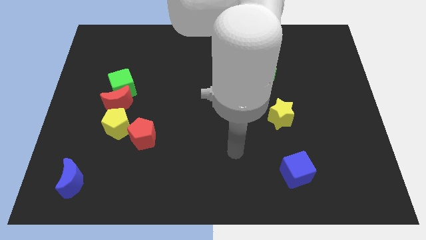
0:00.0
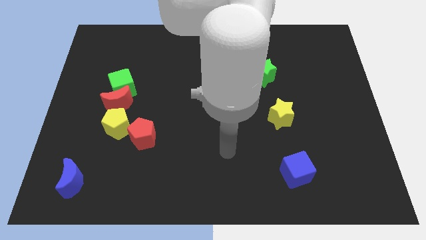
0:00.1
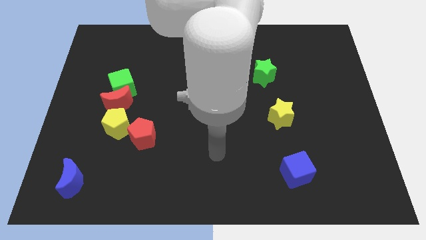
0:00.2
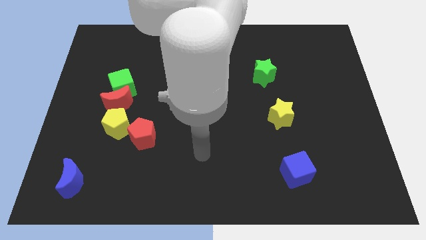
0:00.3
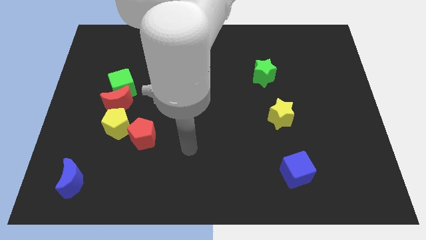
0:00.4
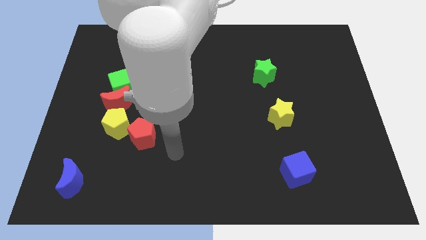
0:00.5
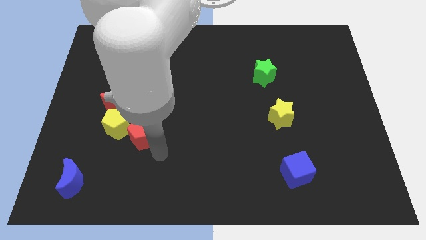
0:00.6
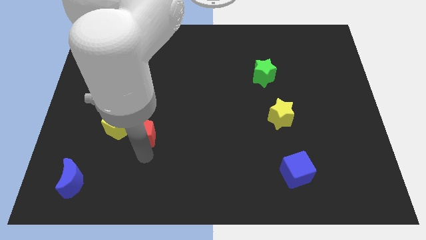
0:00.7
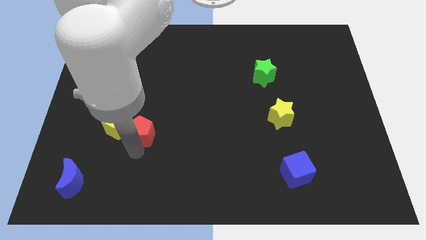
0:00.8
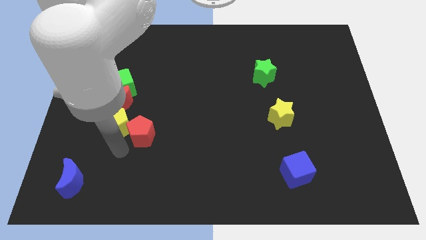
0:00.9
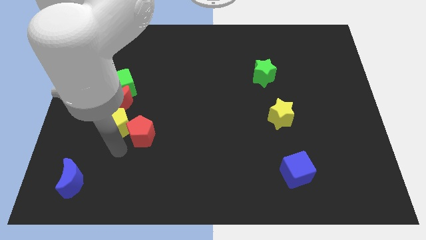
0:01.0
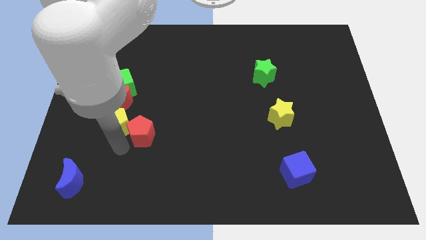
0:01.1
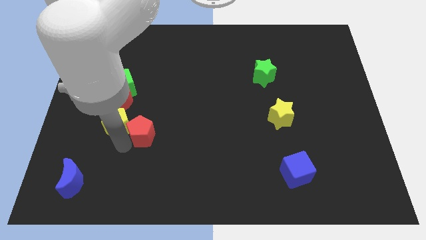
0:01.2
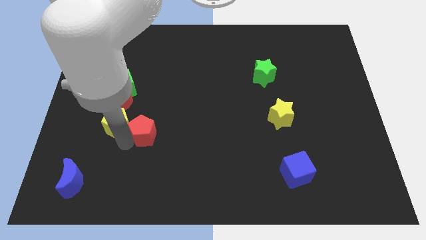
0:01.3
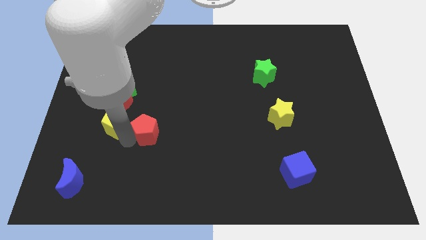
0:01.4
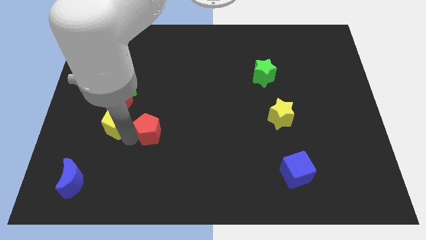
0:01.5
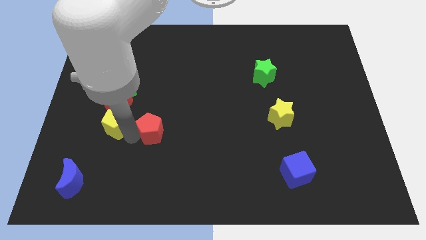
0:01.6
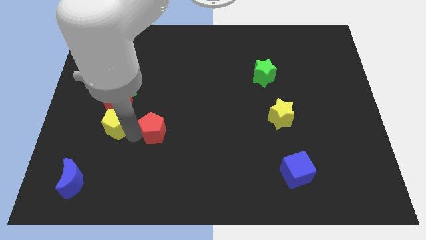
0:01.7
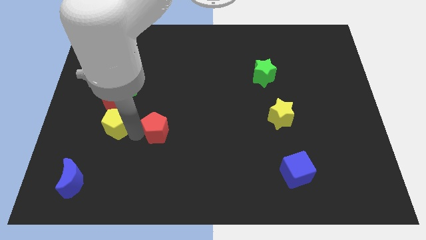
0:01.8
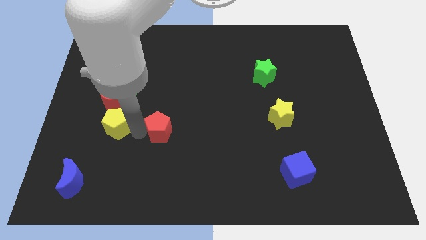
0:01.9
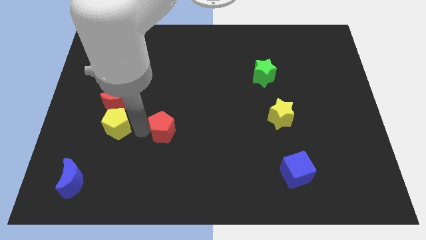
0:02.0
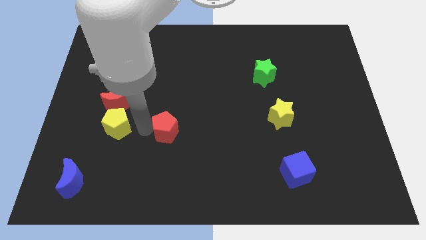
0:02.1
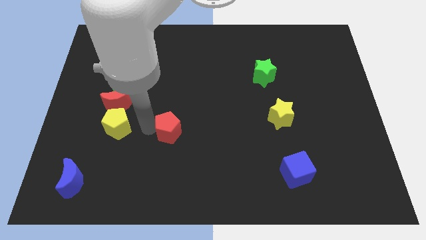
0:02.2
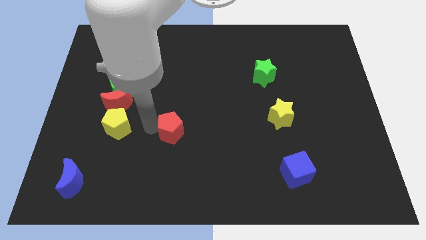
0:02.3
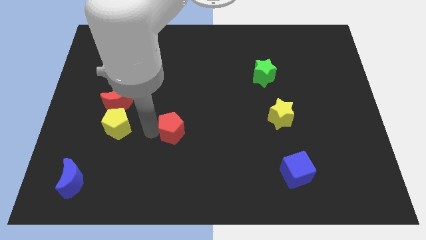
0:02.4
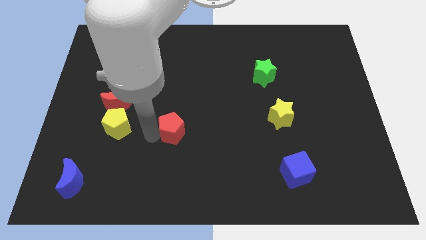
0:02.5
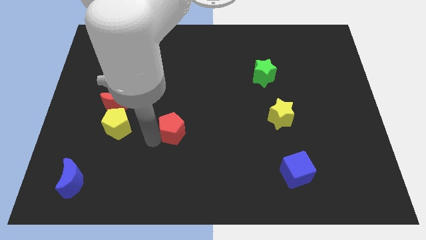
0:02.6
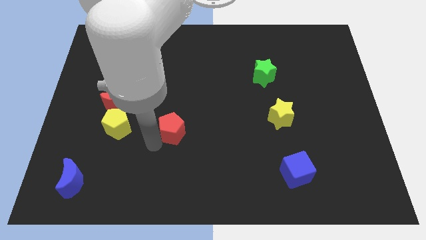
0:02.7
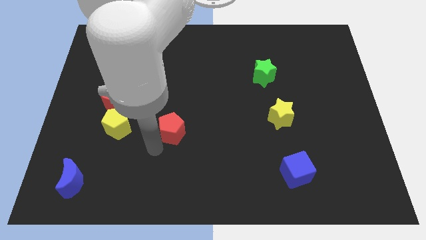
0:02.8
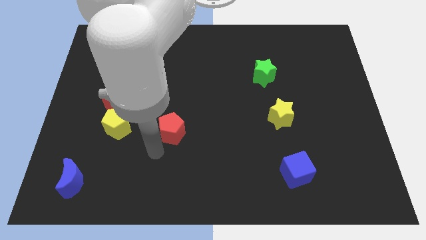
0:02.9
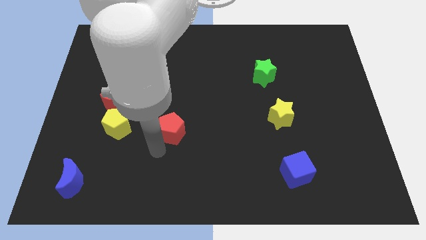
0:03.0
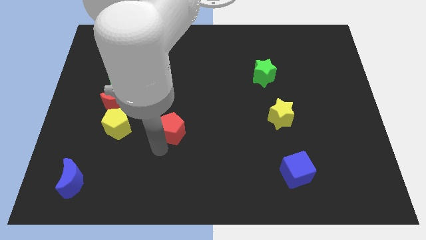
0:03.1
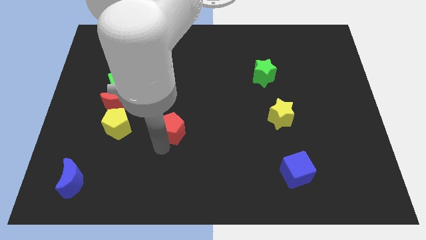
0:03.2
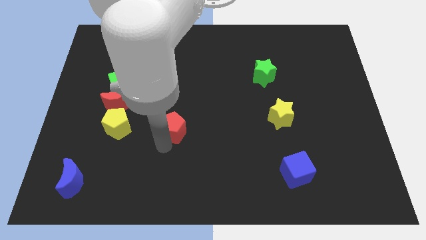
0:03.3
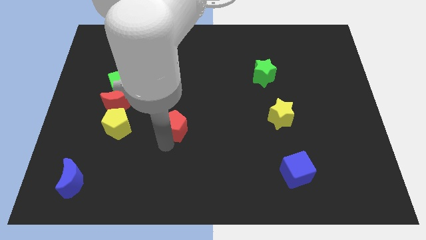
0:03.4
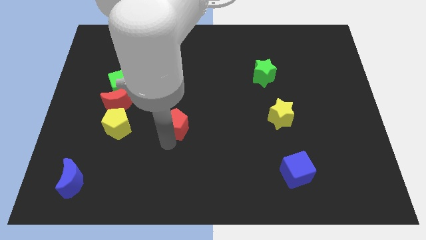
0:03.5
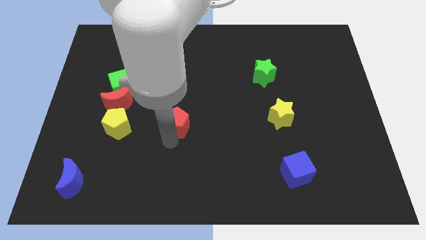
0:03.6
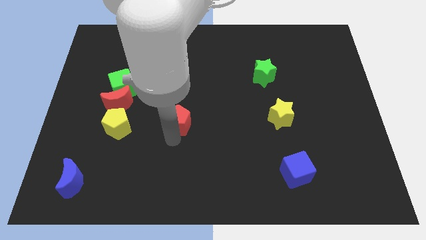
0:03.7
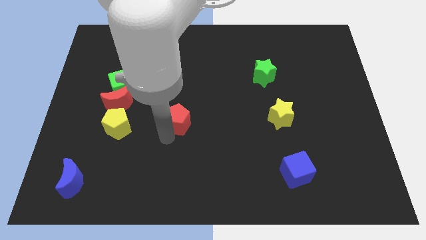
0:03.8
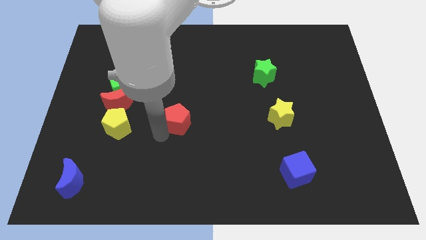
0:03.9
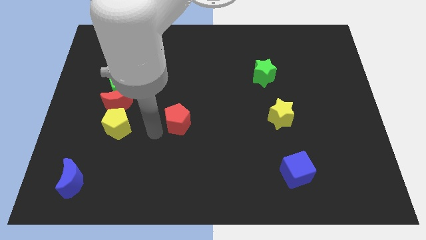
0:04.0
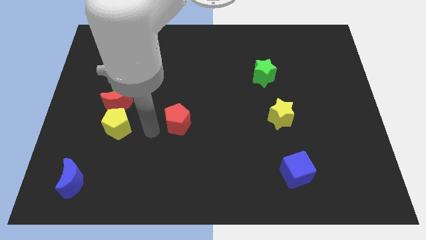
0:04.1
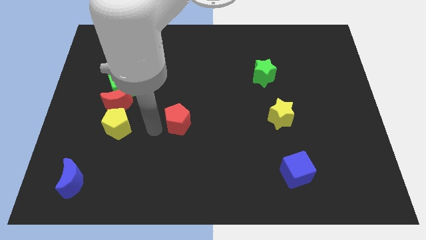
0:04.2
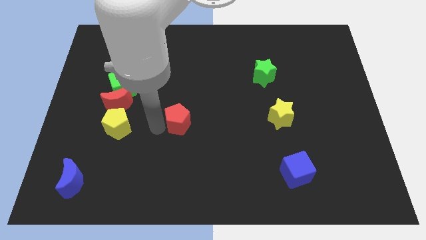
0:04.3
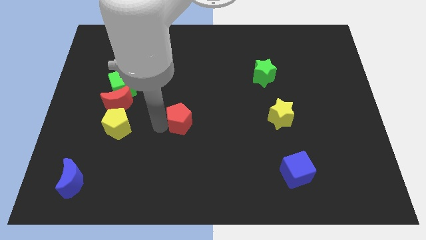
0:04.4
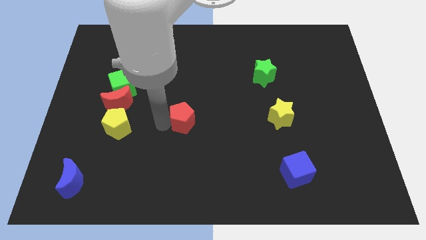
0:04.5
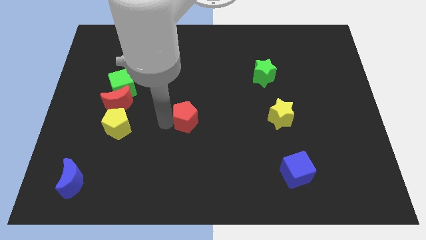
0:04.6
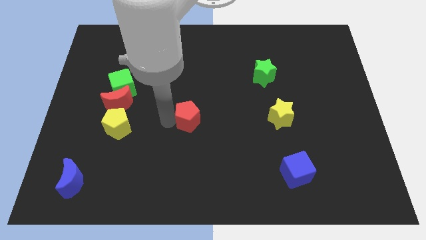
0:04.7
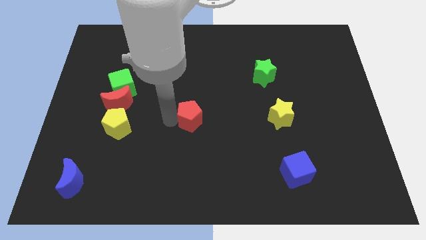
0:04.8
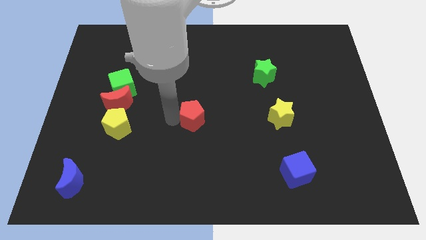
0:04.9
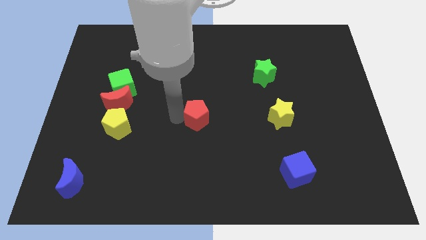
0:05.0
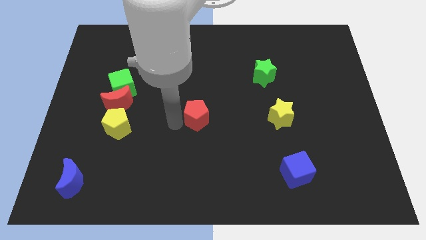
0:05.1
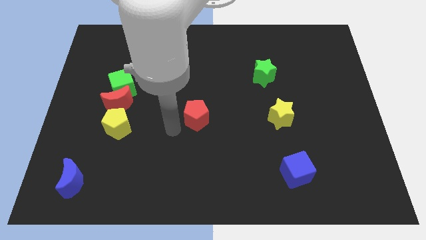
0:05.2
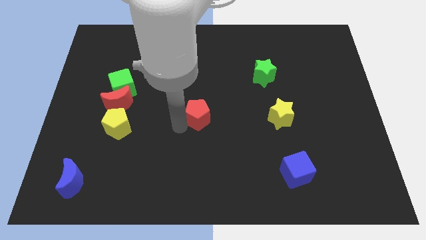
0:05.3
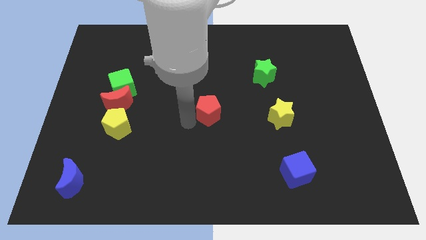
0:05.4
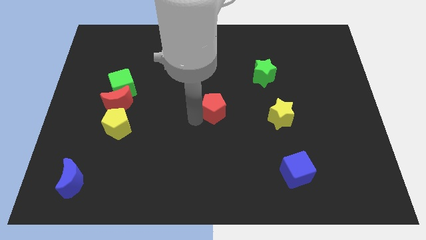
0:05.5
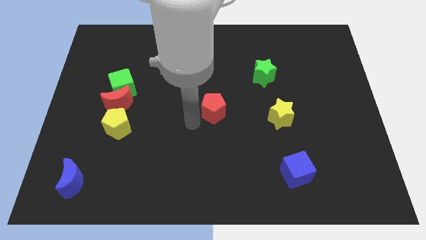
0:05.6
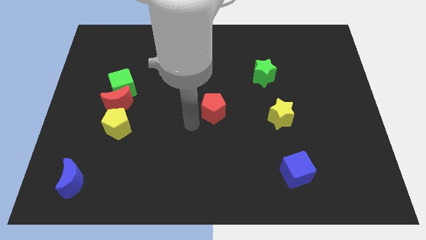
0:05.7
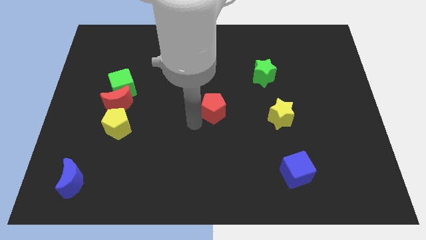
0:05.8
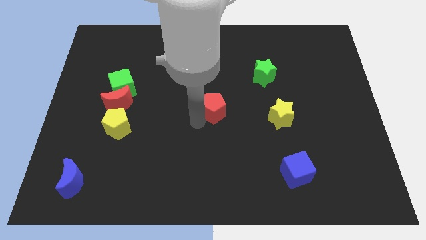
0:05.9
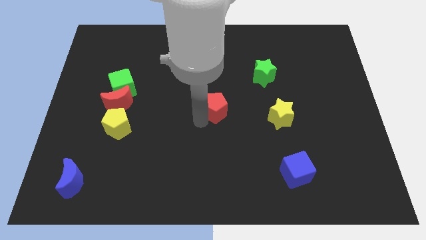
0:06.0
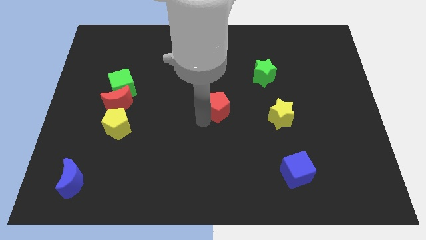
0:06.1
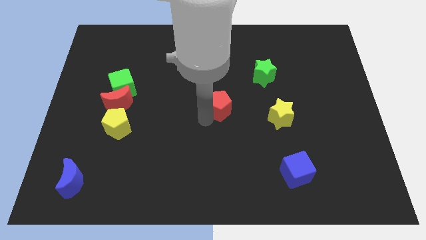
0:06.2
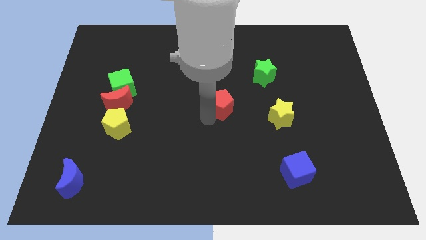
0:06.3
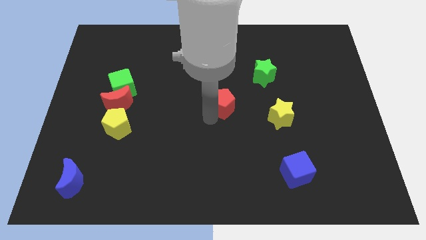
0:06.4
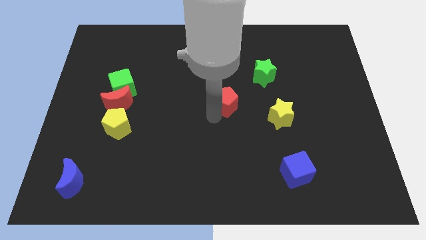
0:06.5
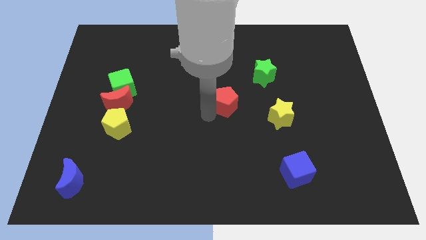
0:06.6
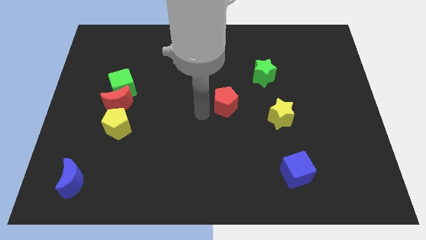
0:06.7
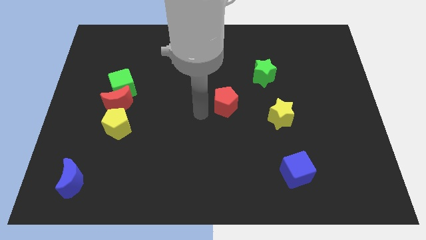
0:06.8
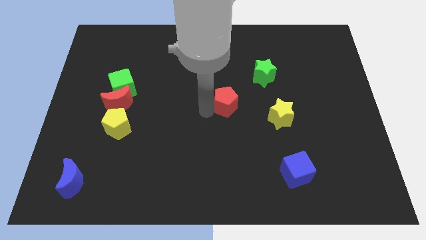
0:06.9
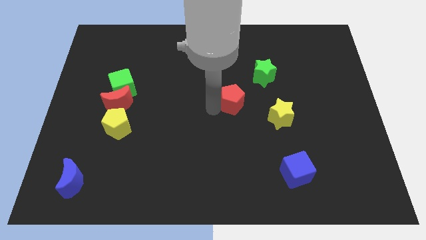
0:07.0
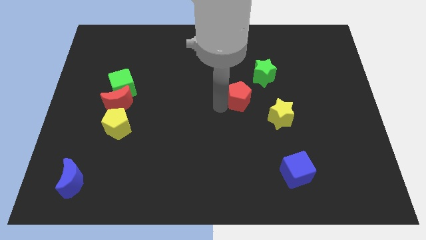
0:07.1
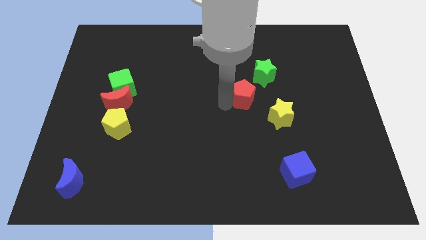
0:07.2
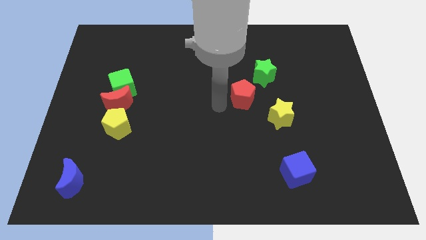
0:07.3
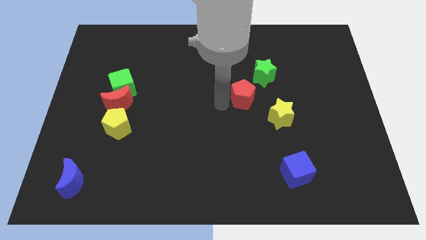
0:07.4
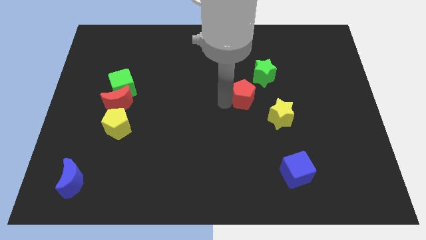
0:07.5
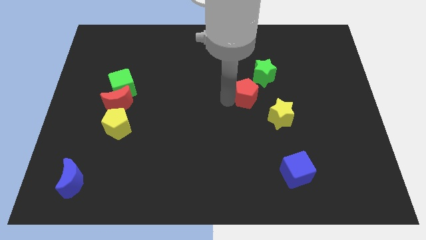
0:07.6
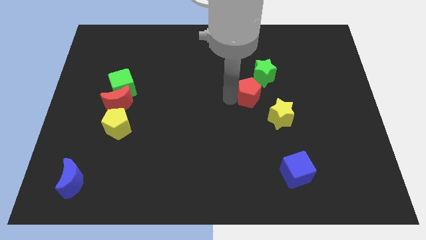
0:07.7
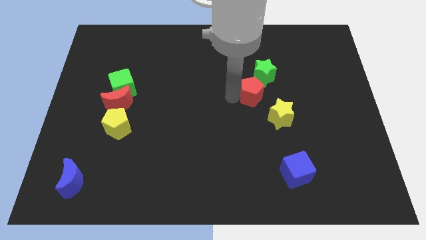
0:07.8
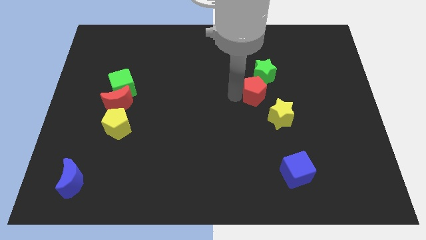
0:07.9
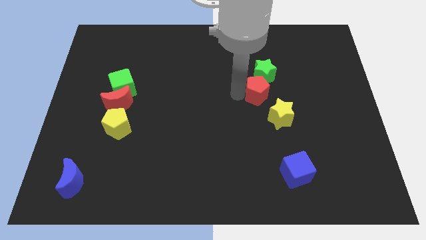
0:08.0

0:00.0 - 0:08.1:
push the red pentagon to the top side of the yellow star

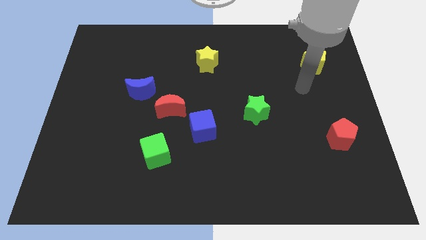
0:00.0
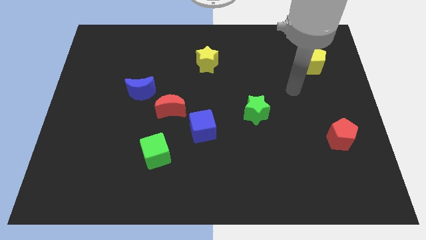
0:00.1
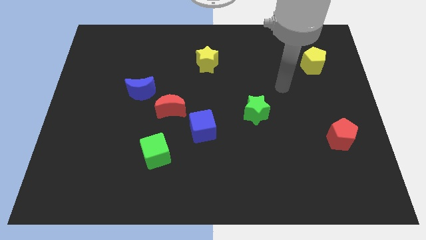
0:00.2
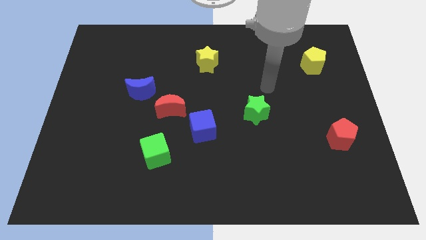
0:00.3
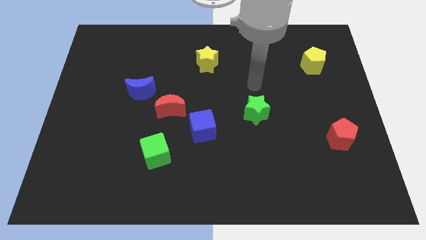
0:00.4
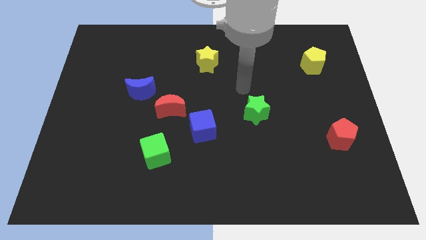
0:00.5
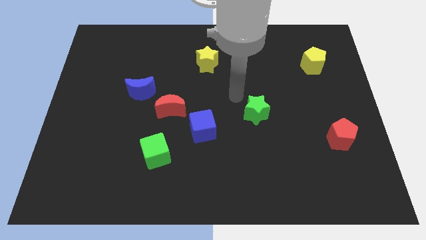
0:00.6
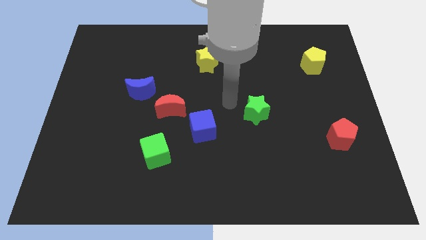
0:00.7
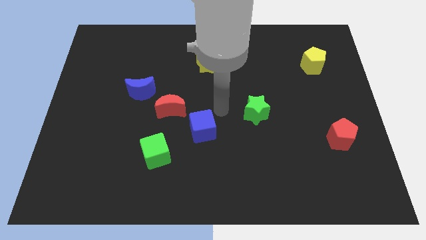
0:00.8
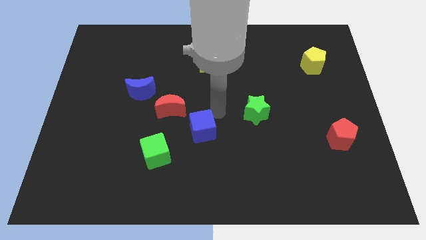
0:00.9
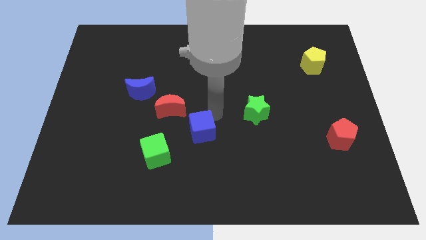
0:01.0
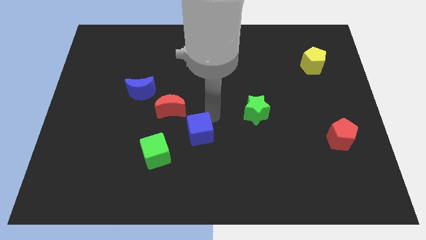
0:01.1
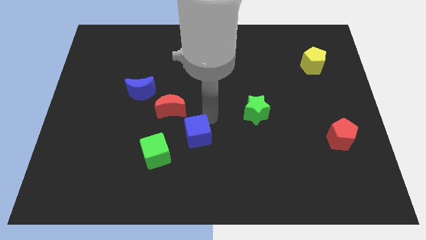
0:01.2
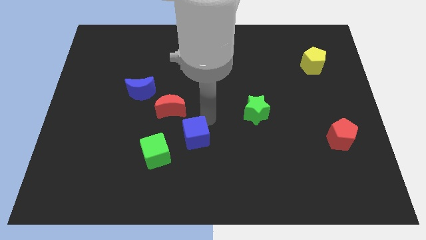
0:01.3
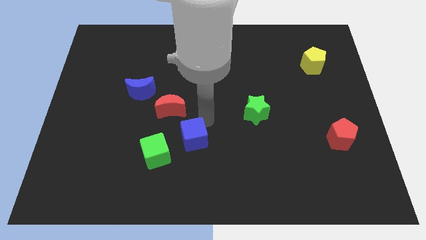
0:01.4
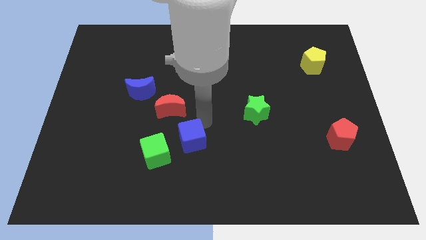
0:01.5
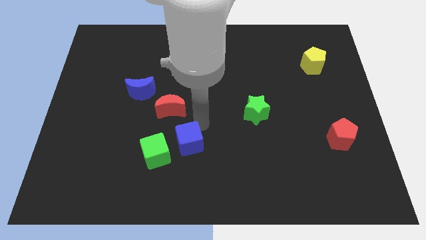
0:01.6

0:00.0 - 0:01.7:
push the blue cube to the bottom of the red moon
